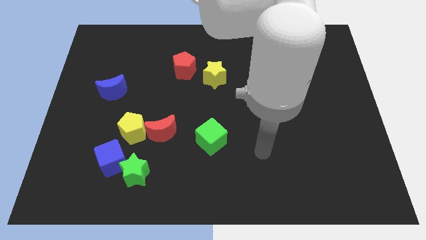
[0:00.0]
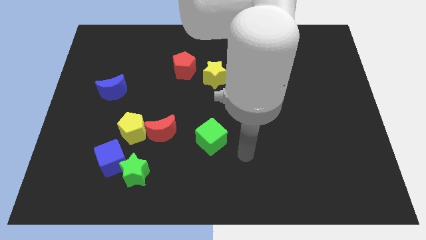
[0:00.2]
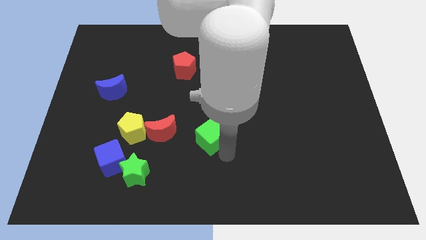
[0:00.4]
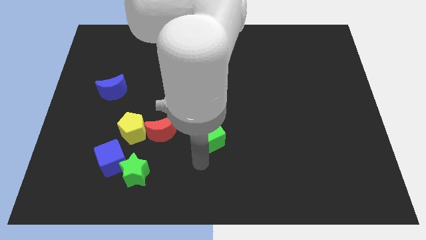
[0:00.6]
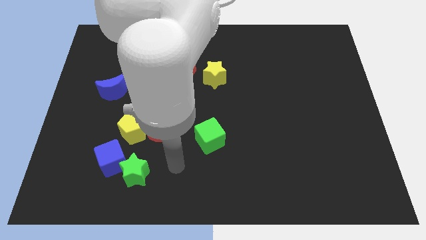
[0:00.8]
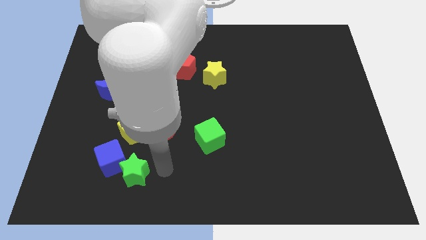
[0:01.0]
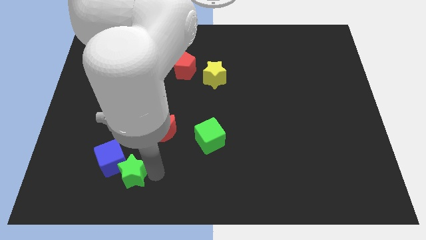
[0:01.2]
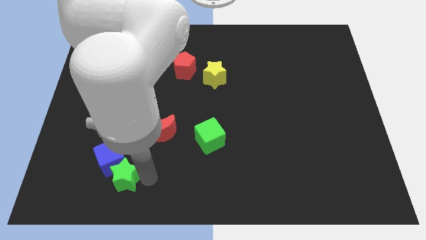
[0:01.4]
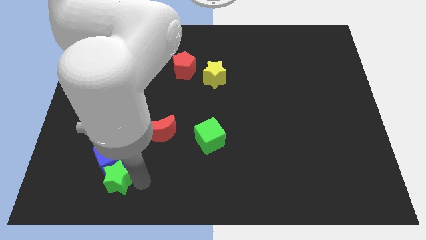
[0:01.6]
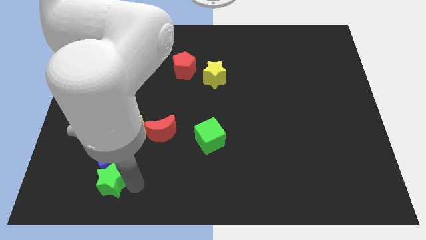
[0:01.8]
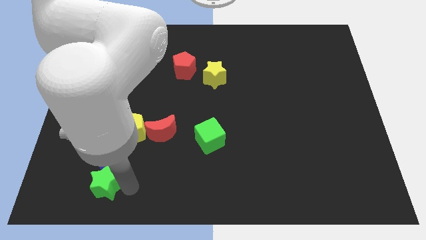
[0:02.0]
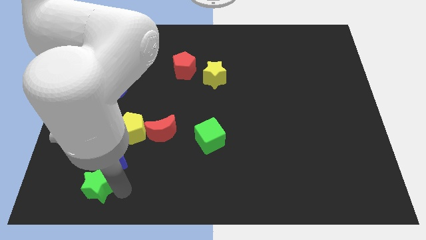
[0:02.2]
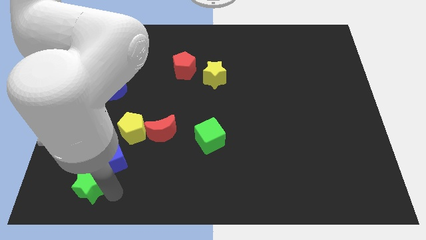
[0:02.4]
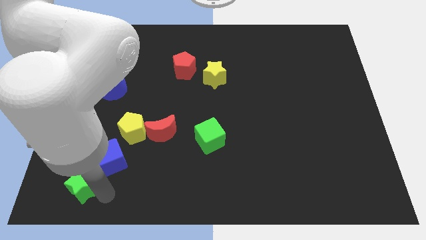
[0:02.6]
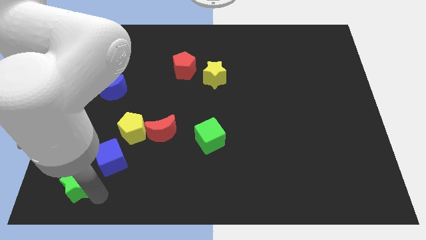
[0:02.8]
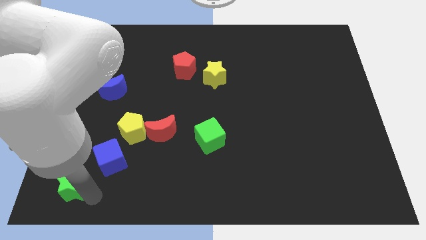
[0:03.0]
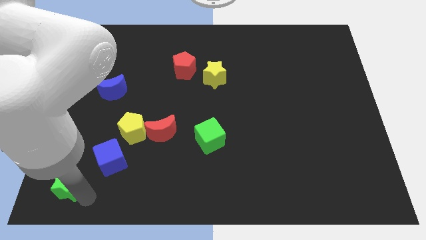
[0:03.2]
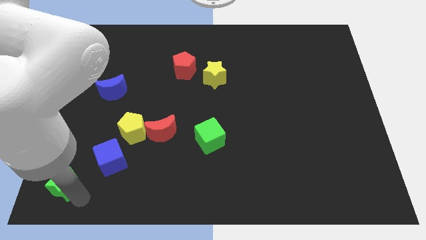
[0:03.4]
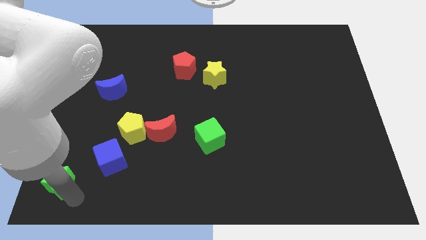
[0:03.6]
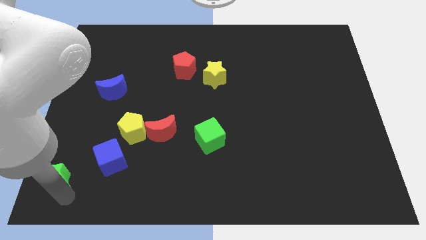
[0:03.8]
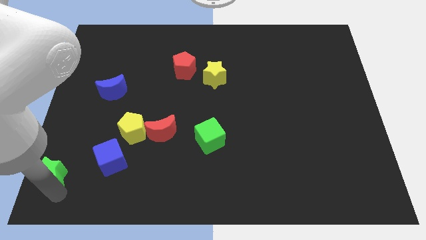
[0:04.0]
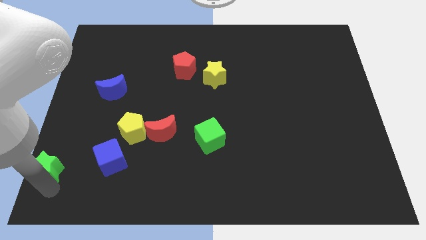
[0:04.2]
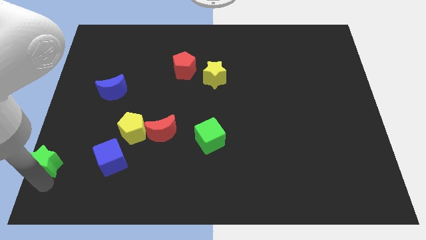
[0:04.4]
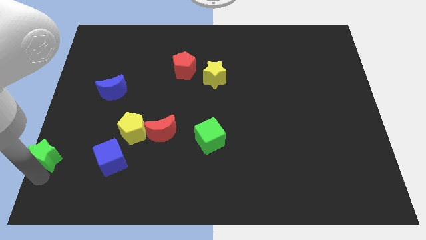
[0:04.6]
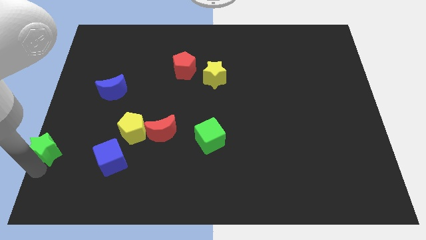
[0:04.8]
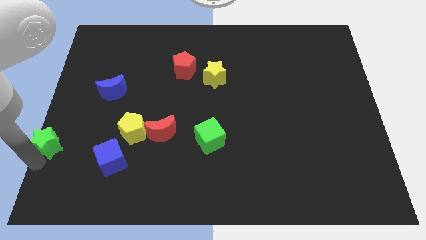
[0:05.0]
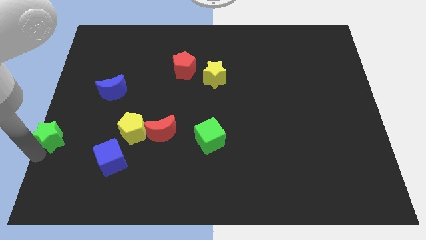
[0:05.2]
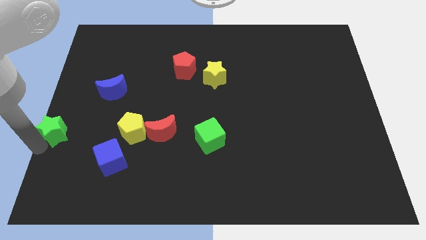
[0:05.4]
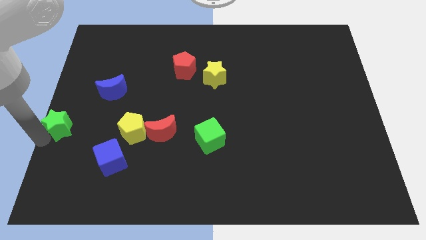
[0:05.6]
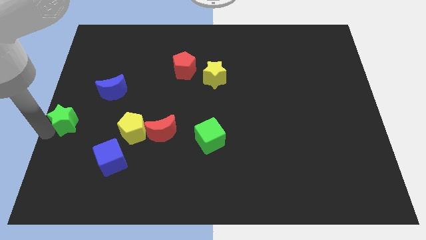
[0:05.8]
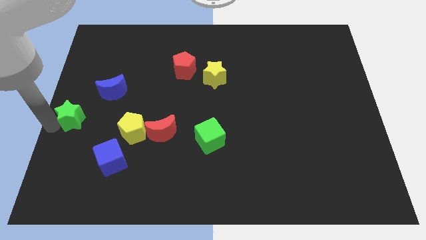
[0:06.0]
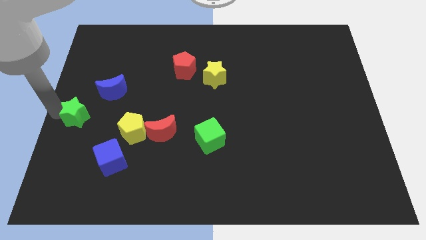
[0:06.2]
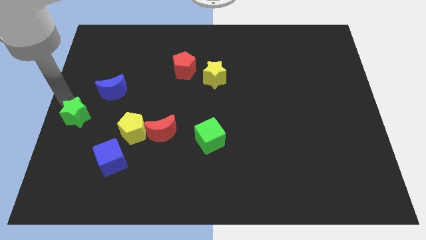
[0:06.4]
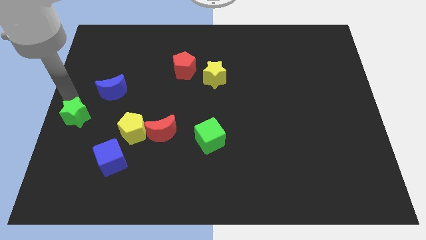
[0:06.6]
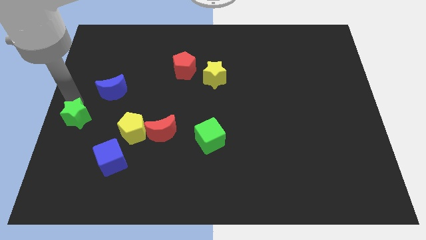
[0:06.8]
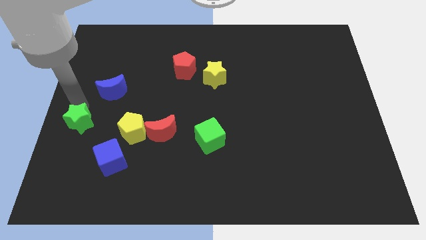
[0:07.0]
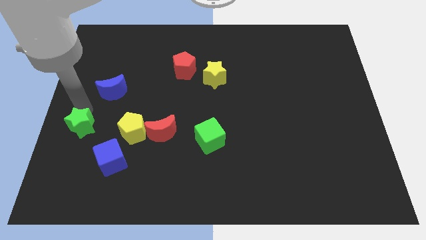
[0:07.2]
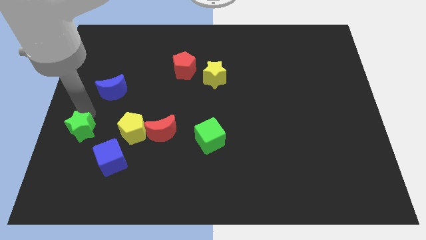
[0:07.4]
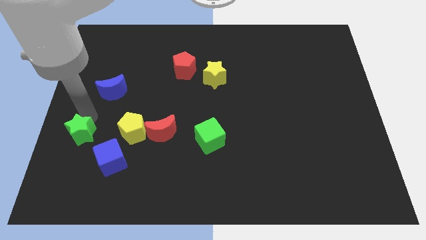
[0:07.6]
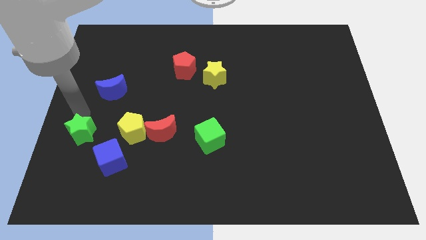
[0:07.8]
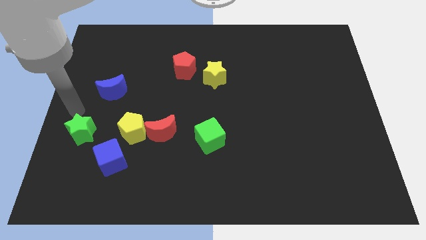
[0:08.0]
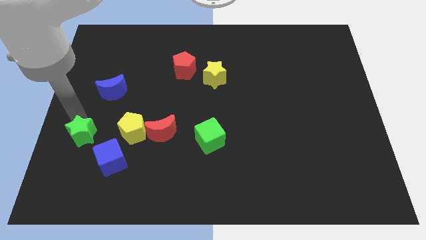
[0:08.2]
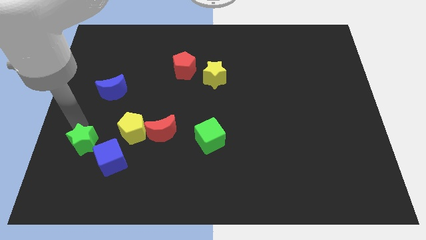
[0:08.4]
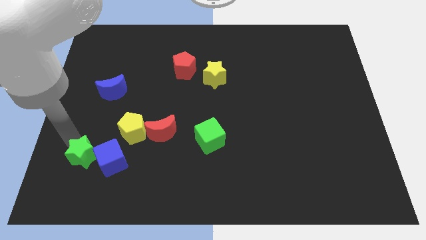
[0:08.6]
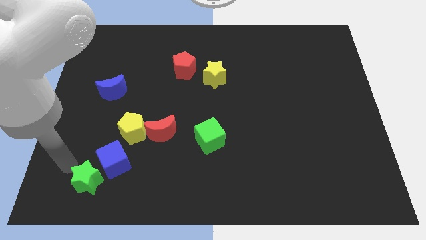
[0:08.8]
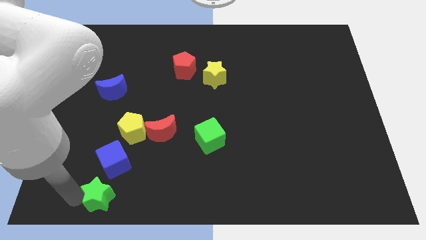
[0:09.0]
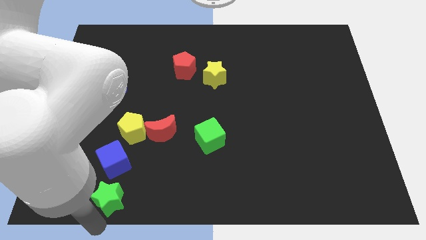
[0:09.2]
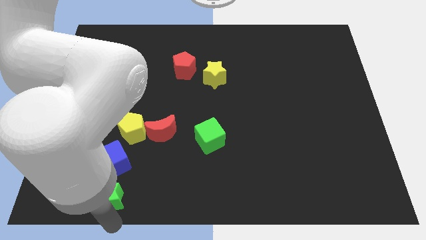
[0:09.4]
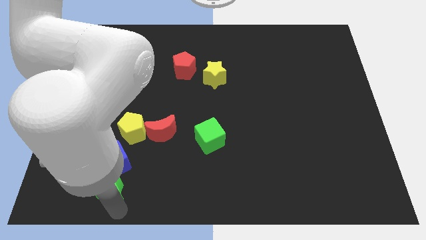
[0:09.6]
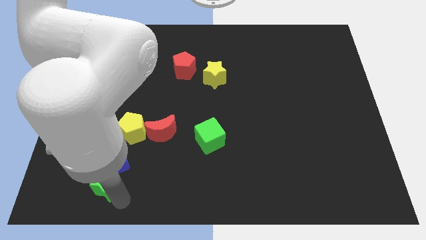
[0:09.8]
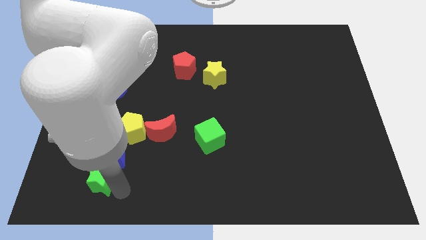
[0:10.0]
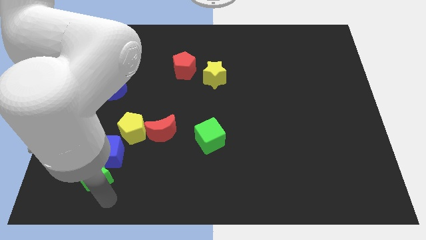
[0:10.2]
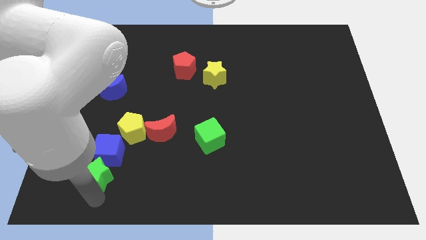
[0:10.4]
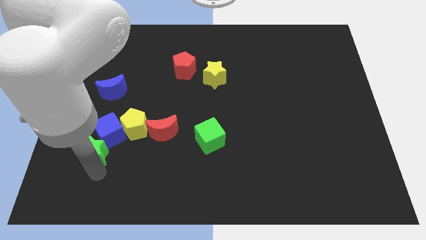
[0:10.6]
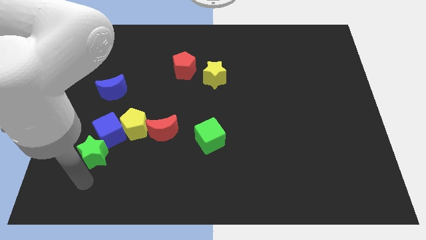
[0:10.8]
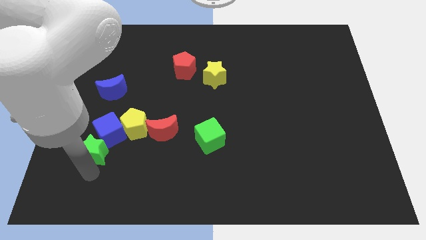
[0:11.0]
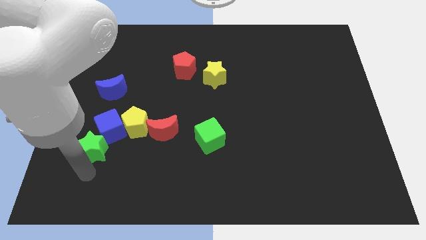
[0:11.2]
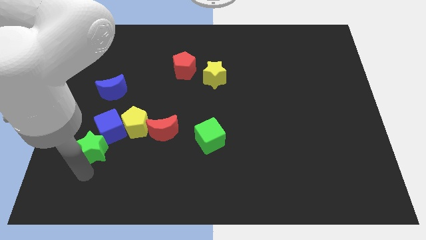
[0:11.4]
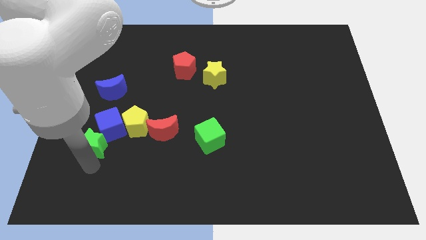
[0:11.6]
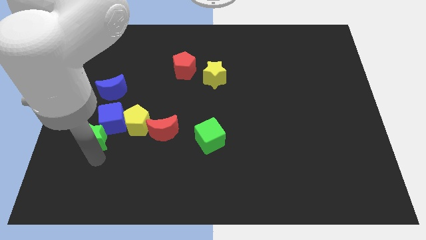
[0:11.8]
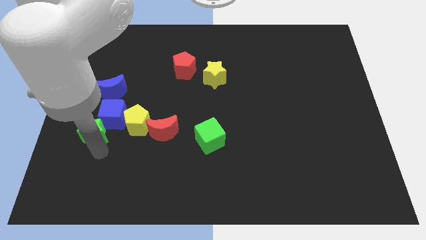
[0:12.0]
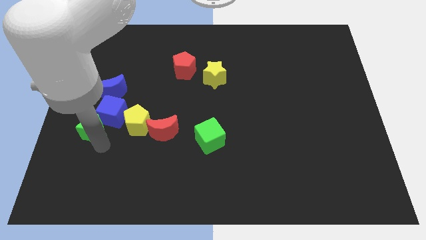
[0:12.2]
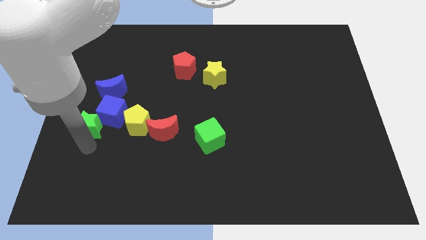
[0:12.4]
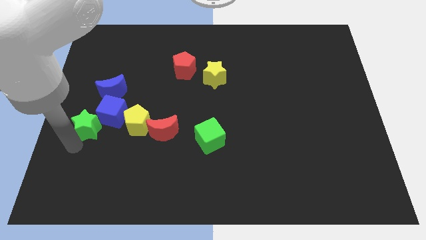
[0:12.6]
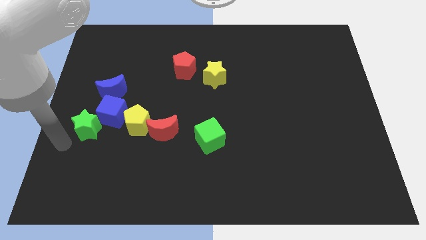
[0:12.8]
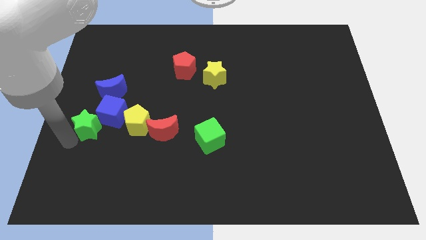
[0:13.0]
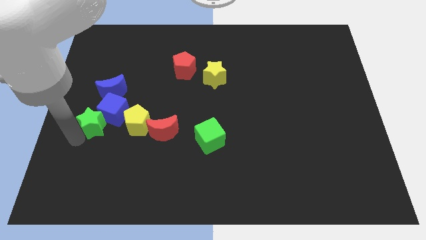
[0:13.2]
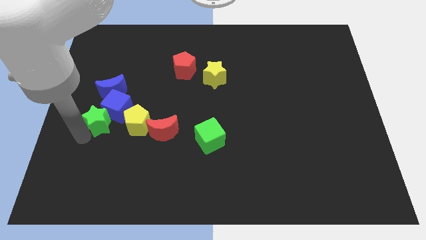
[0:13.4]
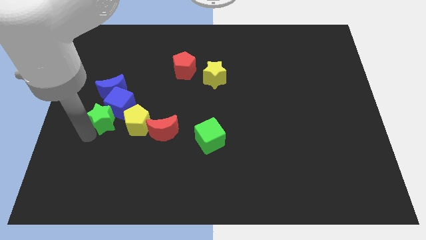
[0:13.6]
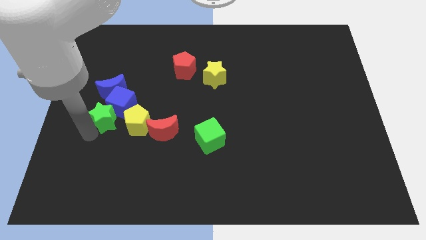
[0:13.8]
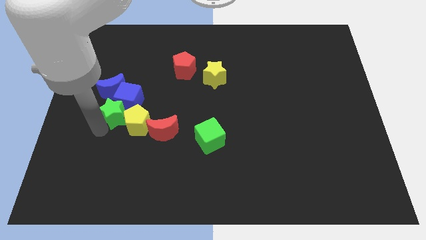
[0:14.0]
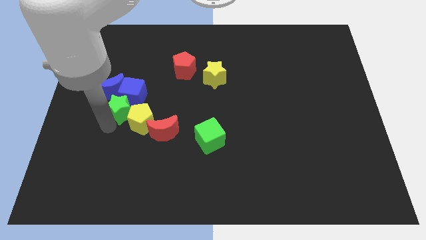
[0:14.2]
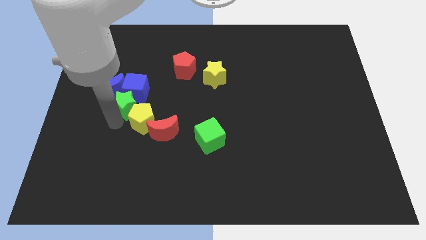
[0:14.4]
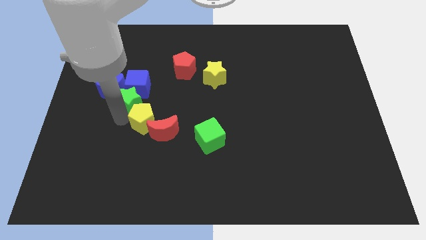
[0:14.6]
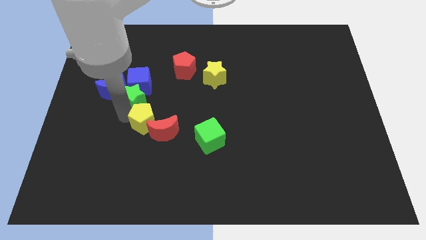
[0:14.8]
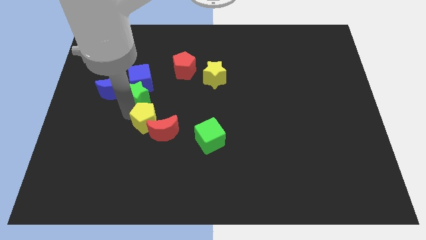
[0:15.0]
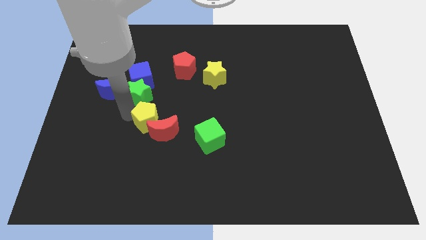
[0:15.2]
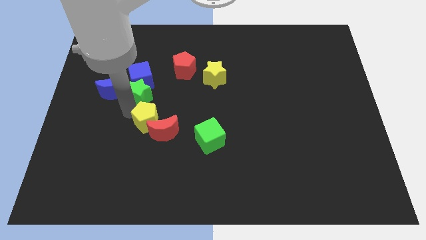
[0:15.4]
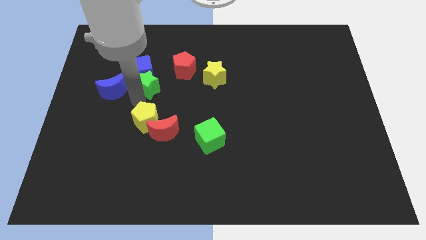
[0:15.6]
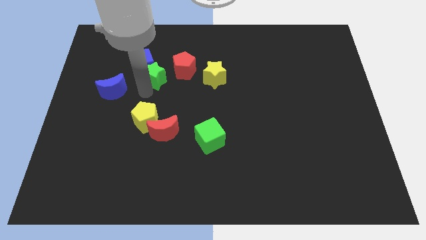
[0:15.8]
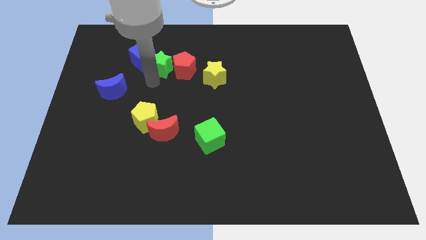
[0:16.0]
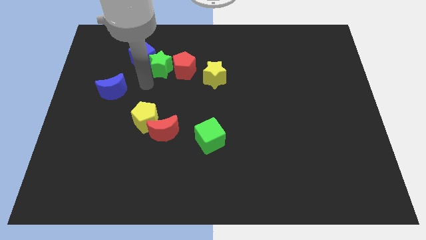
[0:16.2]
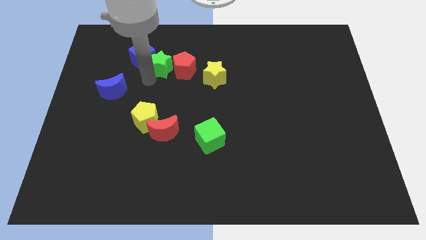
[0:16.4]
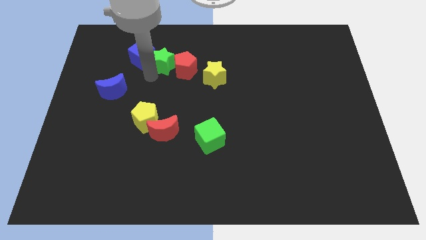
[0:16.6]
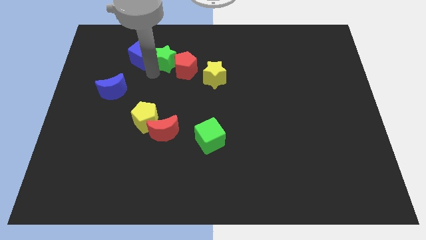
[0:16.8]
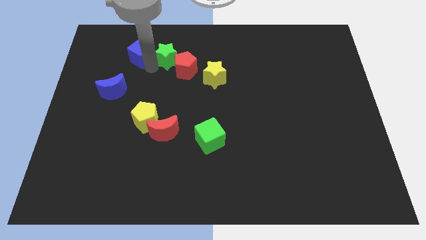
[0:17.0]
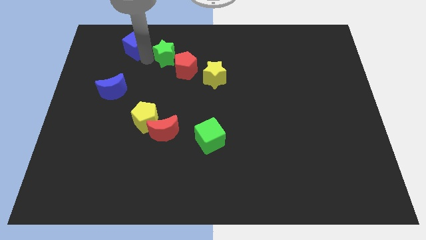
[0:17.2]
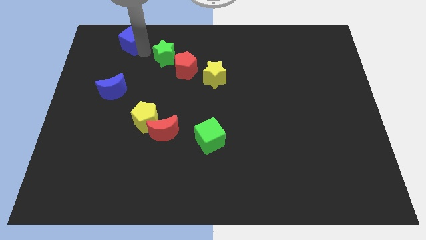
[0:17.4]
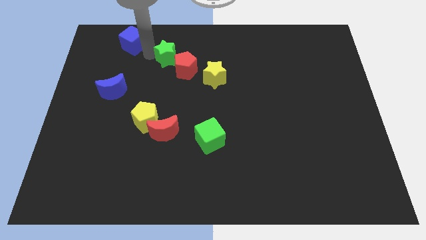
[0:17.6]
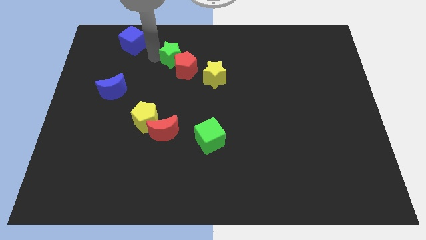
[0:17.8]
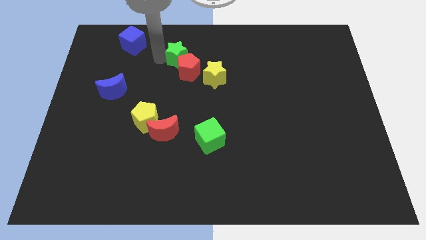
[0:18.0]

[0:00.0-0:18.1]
move the green star to the top left of the yellow star
